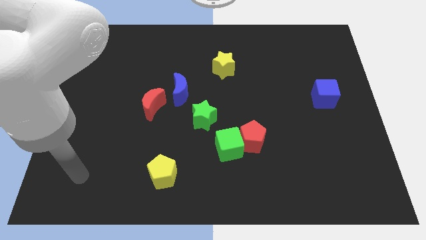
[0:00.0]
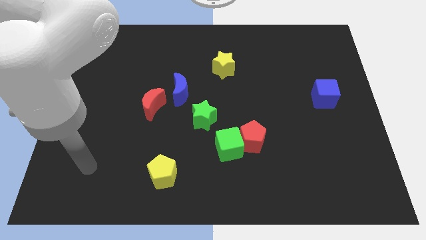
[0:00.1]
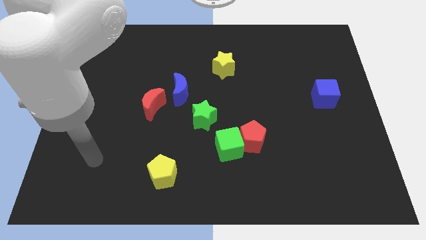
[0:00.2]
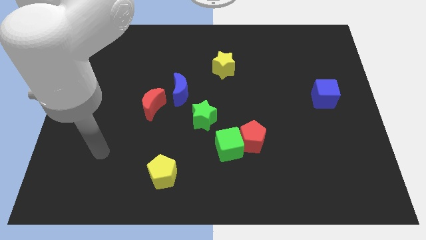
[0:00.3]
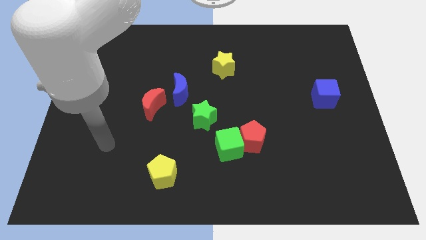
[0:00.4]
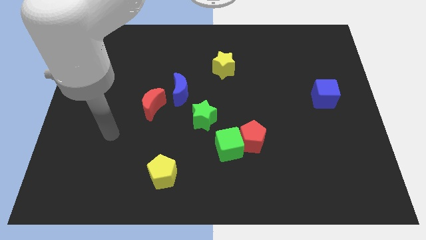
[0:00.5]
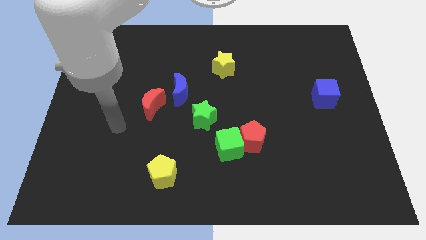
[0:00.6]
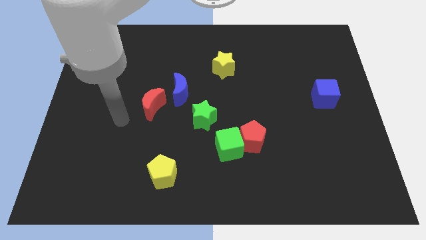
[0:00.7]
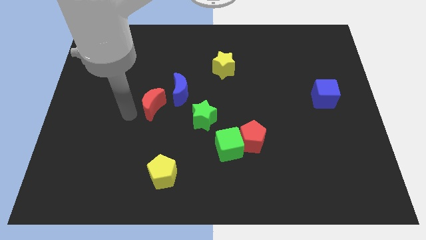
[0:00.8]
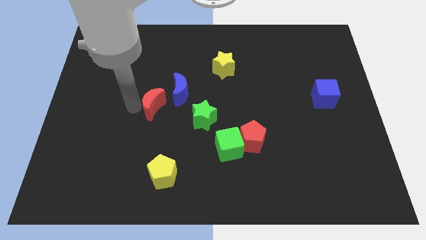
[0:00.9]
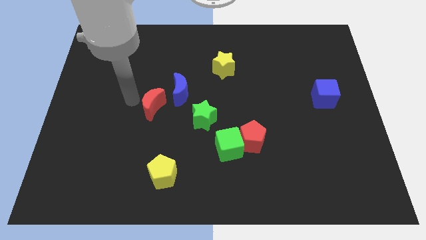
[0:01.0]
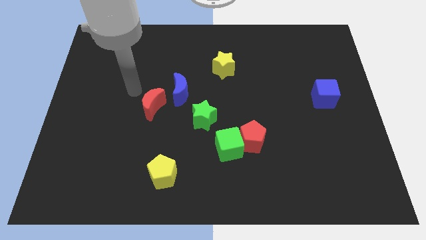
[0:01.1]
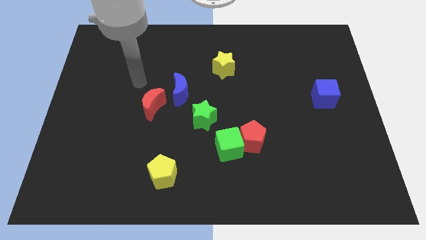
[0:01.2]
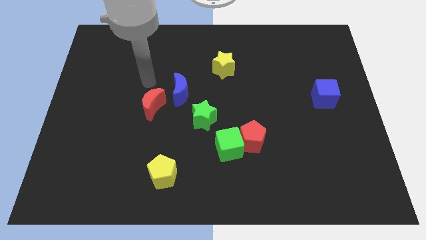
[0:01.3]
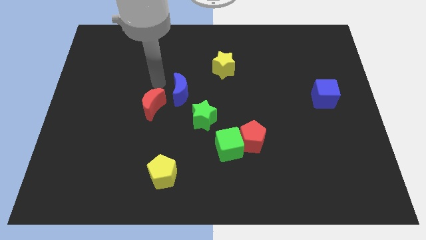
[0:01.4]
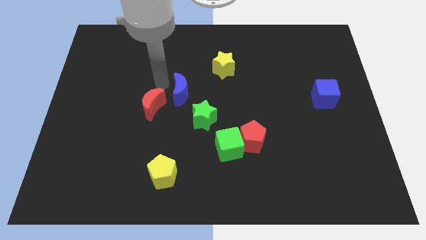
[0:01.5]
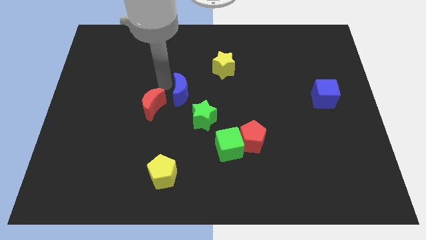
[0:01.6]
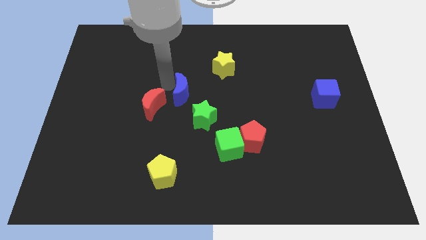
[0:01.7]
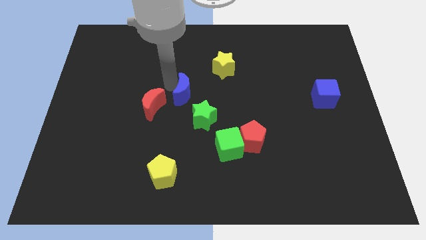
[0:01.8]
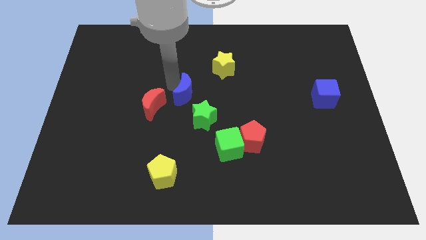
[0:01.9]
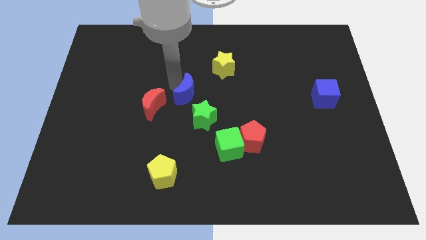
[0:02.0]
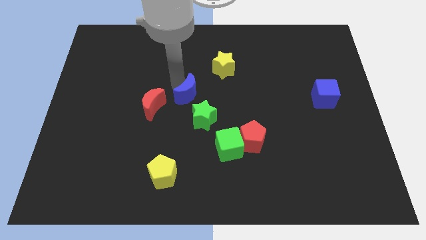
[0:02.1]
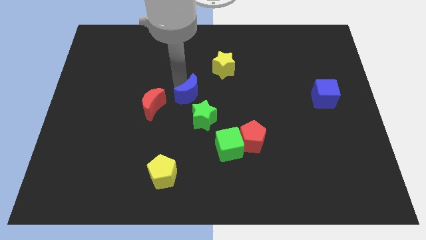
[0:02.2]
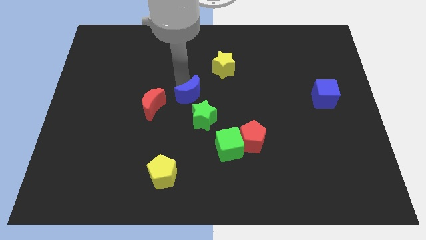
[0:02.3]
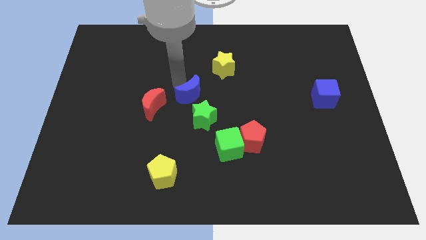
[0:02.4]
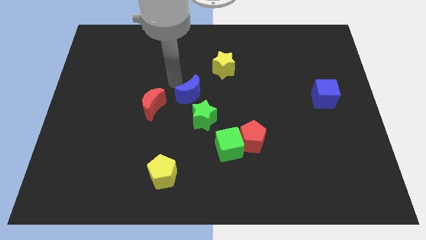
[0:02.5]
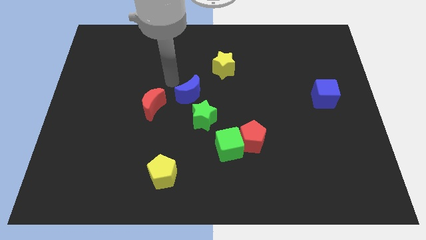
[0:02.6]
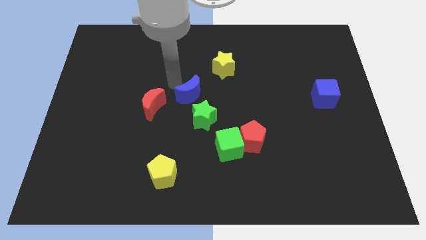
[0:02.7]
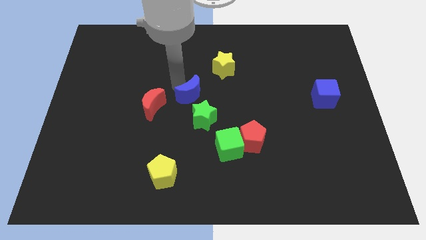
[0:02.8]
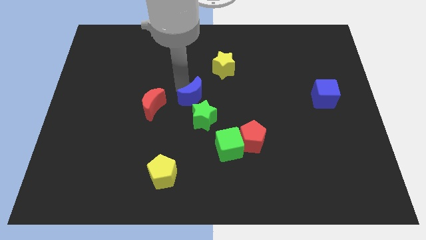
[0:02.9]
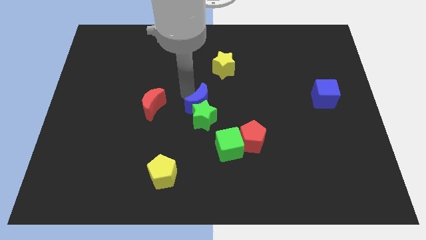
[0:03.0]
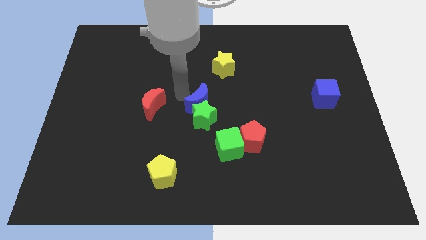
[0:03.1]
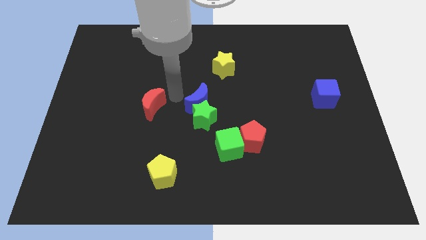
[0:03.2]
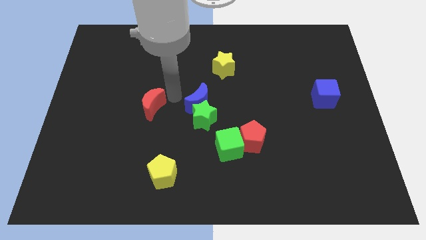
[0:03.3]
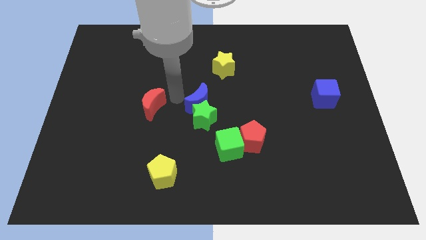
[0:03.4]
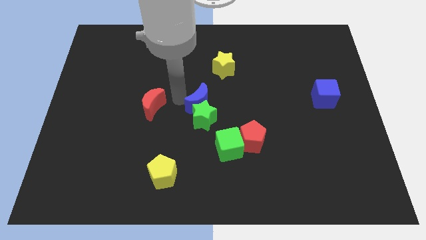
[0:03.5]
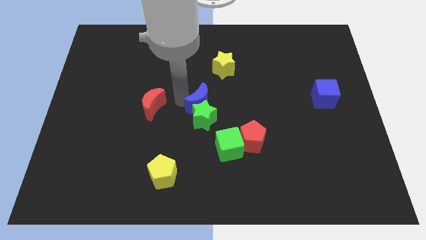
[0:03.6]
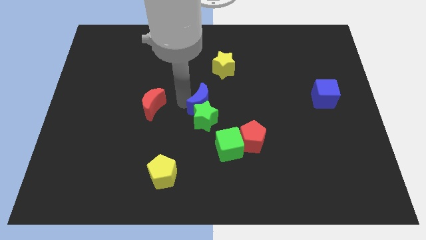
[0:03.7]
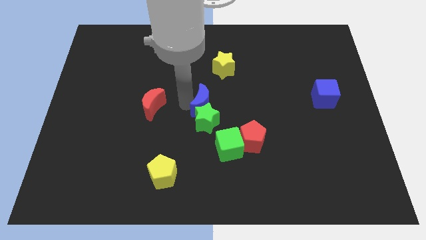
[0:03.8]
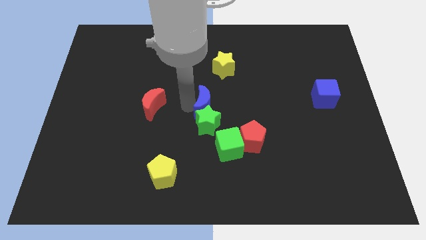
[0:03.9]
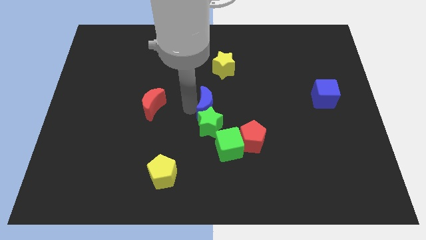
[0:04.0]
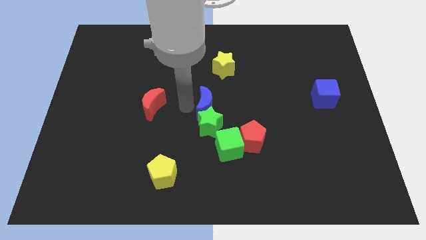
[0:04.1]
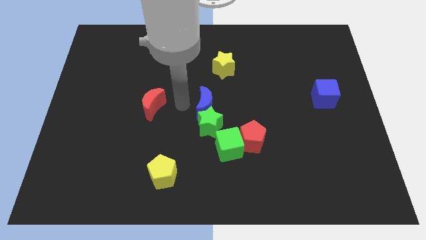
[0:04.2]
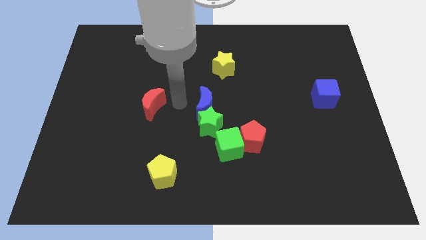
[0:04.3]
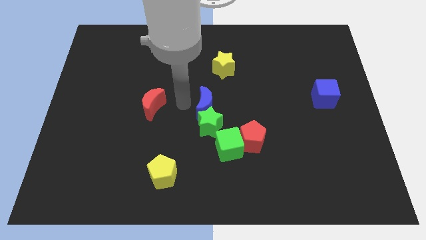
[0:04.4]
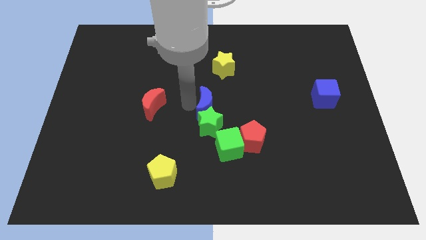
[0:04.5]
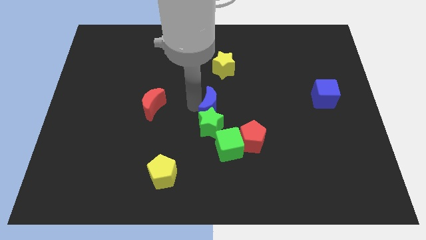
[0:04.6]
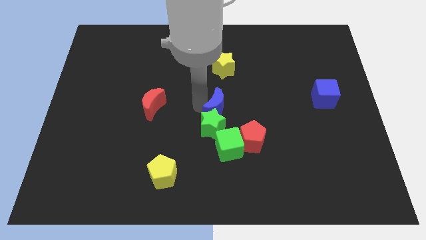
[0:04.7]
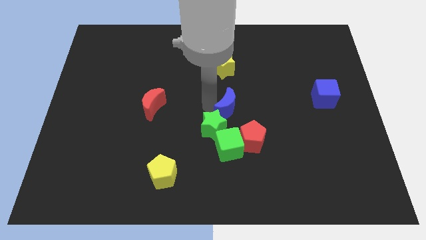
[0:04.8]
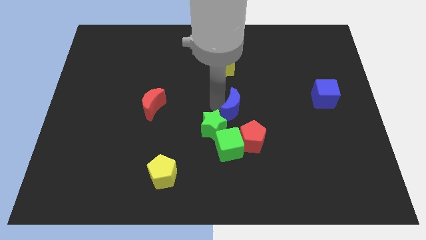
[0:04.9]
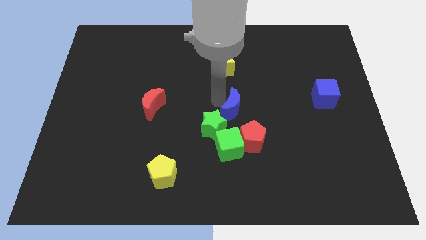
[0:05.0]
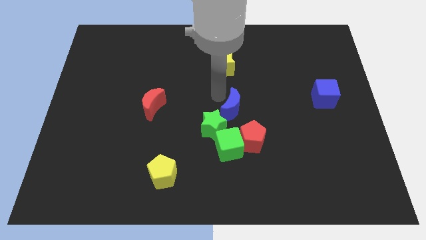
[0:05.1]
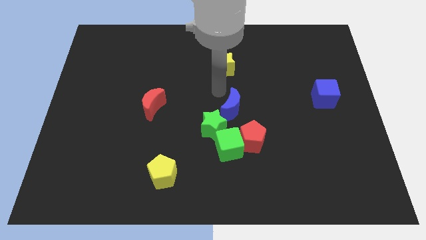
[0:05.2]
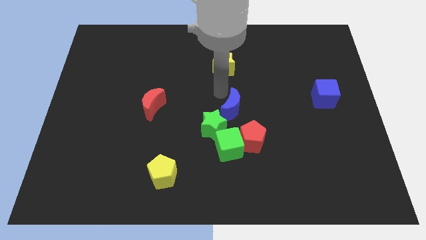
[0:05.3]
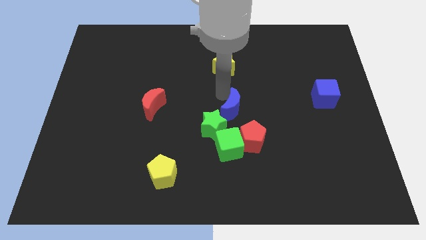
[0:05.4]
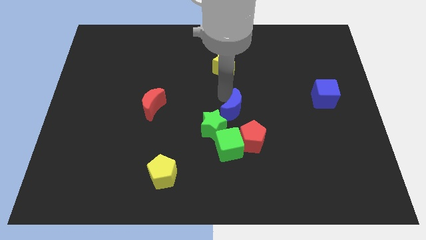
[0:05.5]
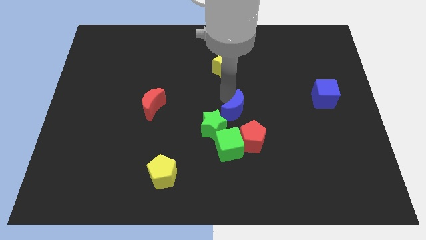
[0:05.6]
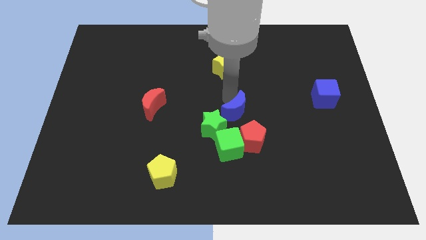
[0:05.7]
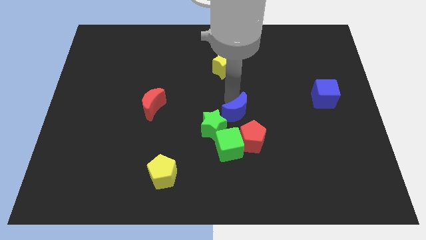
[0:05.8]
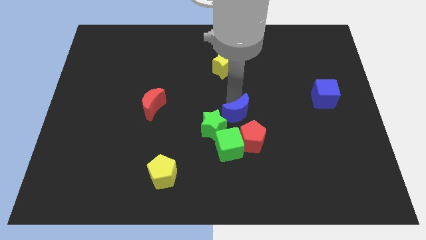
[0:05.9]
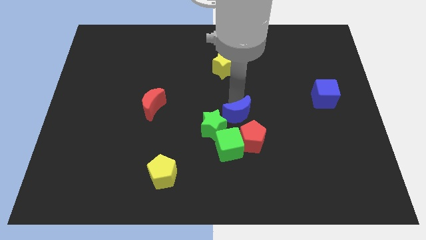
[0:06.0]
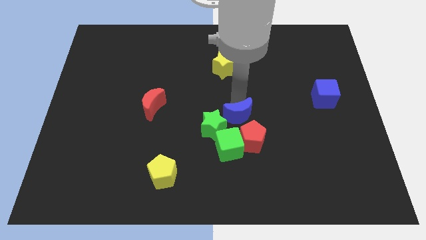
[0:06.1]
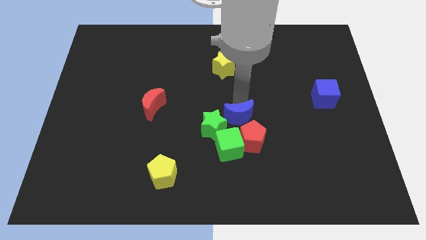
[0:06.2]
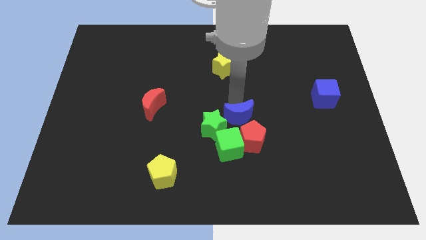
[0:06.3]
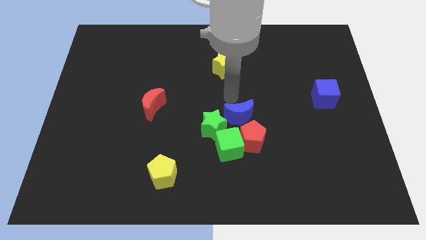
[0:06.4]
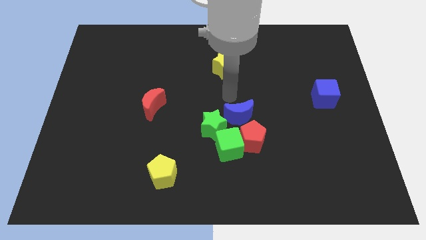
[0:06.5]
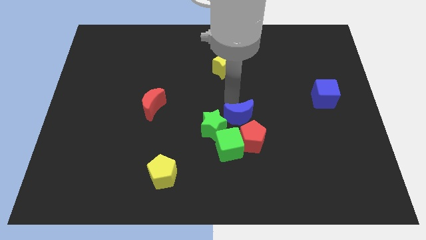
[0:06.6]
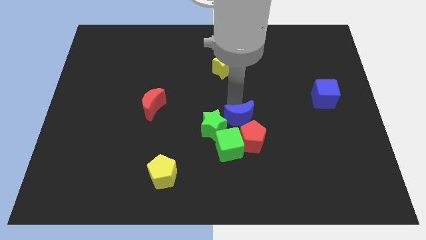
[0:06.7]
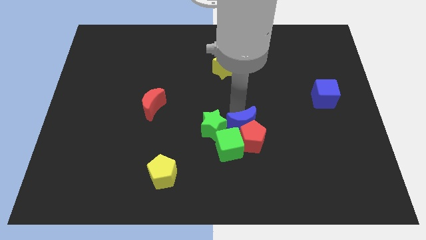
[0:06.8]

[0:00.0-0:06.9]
slide the blue moon close to the red pentagon

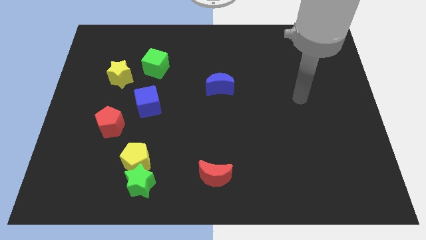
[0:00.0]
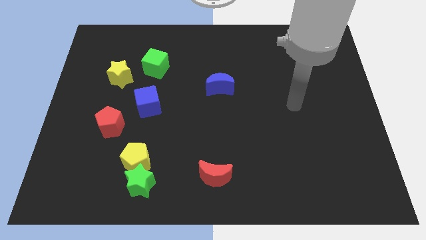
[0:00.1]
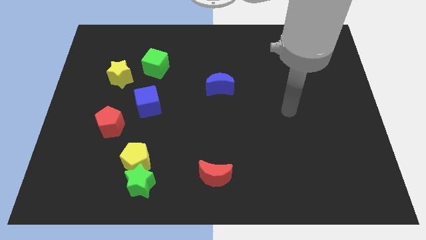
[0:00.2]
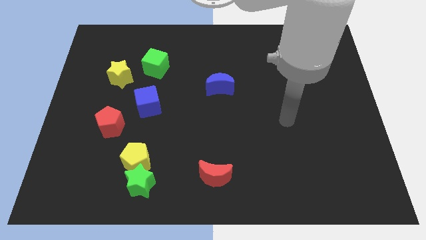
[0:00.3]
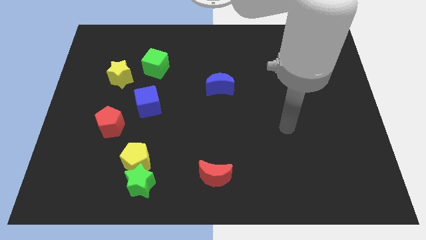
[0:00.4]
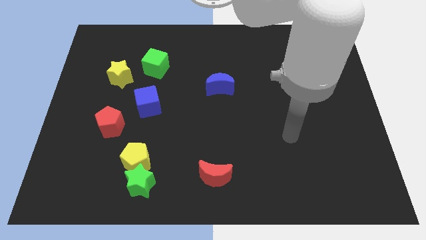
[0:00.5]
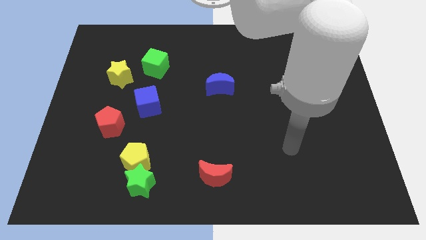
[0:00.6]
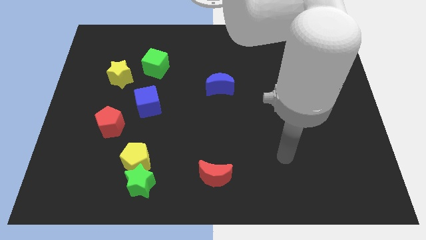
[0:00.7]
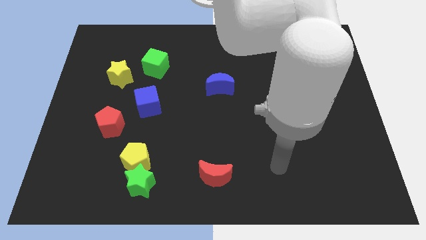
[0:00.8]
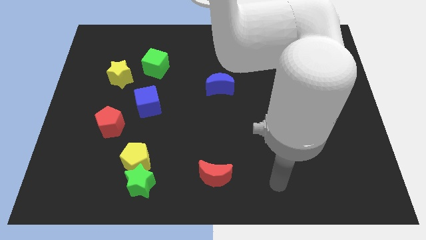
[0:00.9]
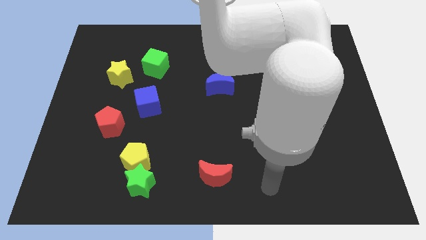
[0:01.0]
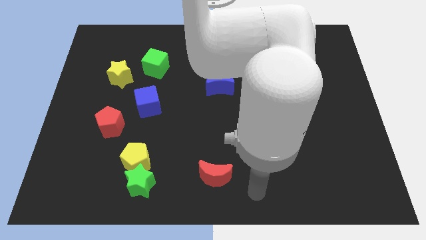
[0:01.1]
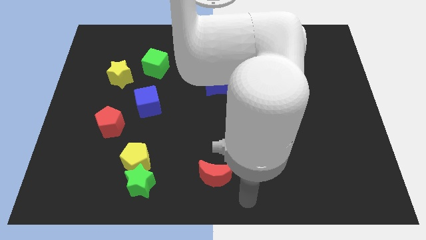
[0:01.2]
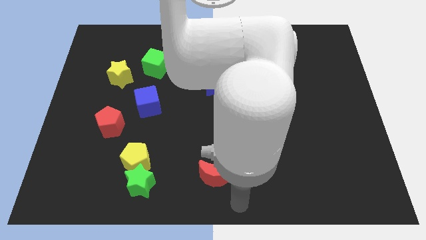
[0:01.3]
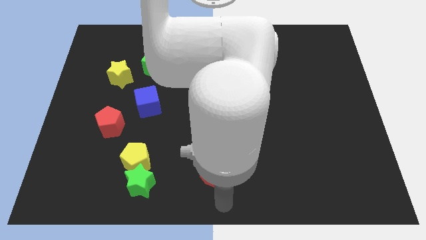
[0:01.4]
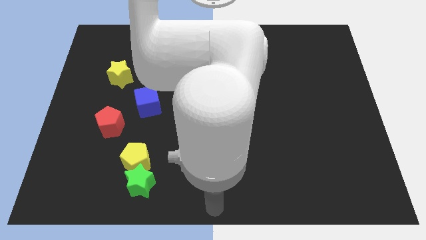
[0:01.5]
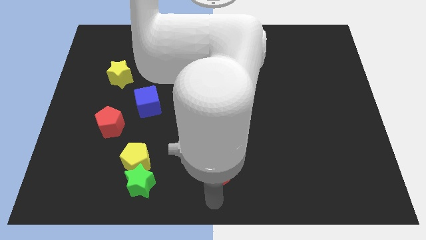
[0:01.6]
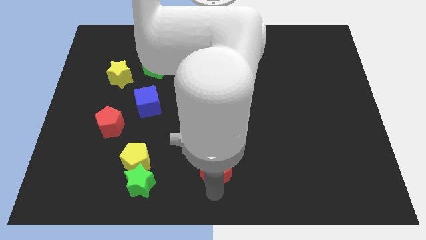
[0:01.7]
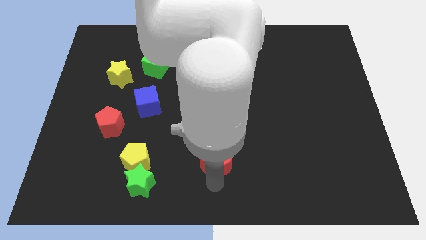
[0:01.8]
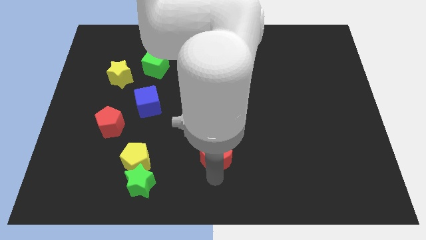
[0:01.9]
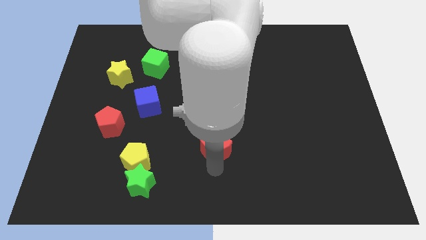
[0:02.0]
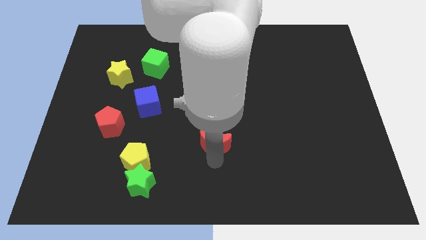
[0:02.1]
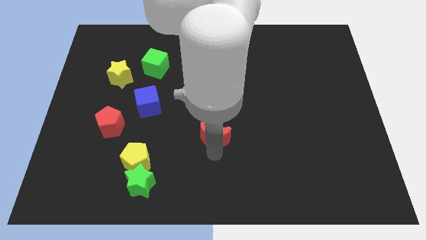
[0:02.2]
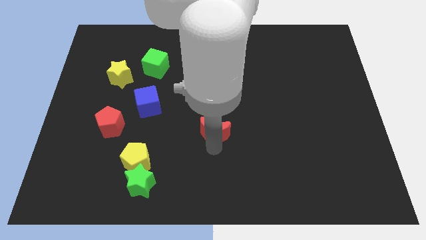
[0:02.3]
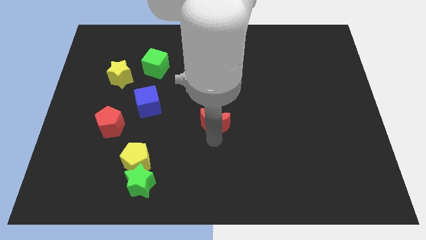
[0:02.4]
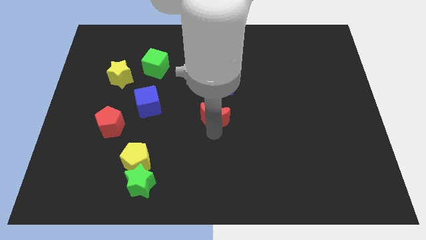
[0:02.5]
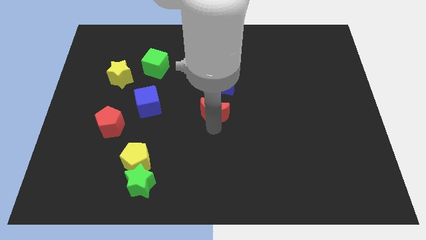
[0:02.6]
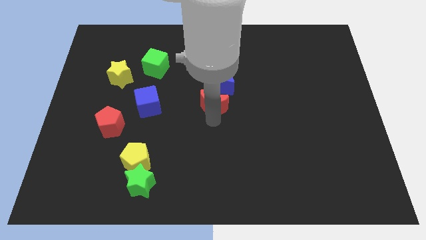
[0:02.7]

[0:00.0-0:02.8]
slide the red moon next to the blue moon
